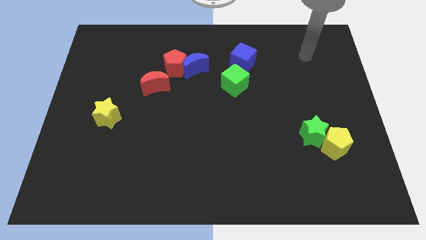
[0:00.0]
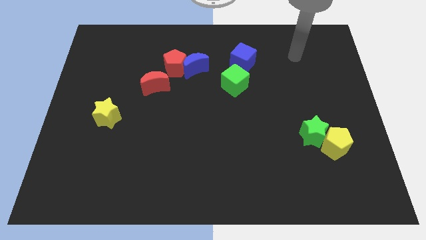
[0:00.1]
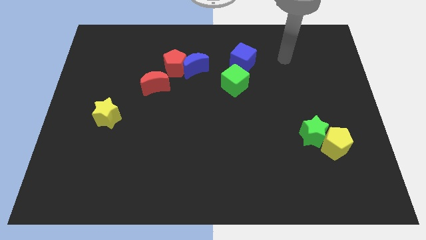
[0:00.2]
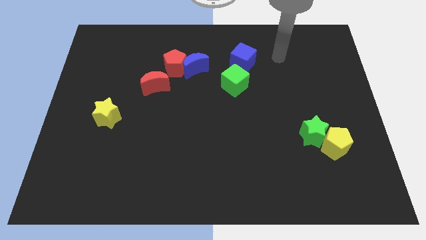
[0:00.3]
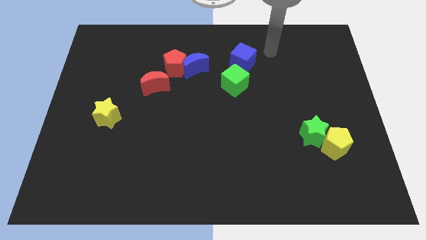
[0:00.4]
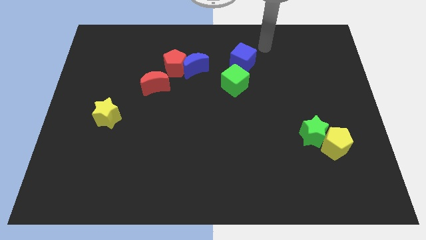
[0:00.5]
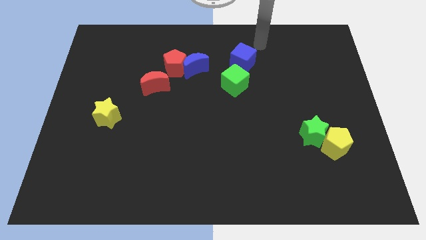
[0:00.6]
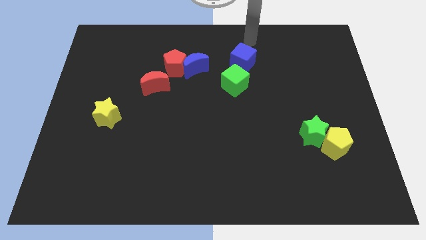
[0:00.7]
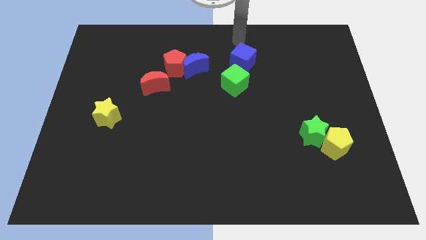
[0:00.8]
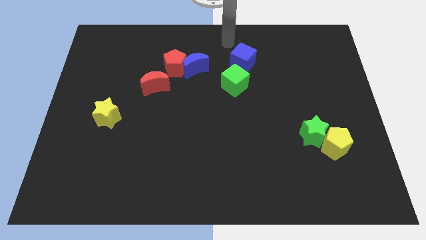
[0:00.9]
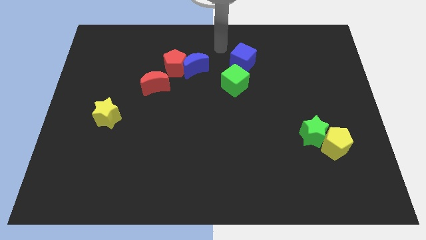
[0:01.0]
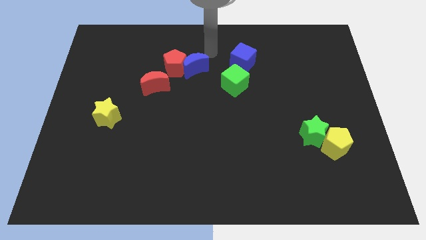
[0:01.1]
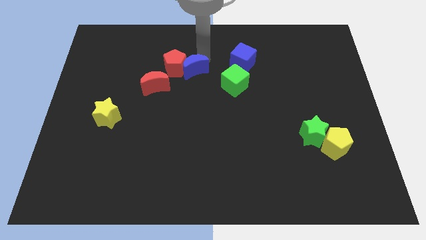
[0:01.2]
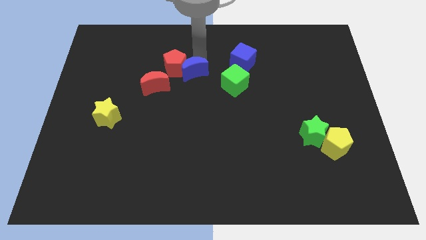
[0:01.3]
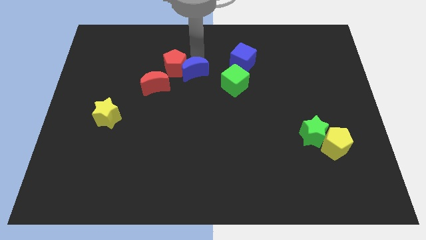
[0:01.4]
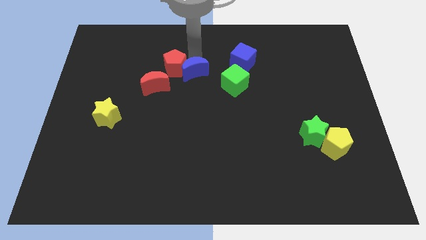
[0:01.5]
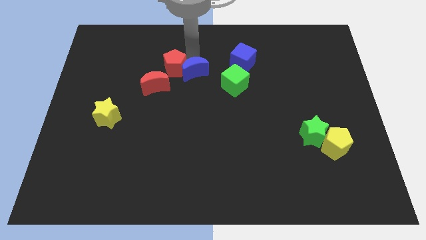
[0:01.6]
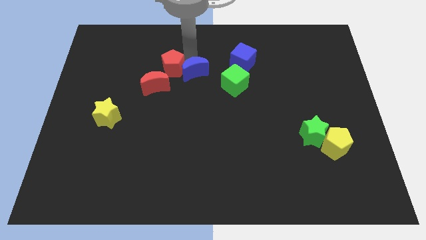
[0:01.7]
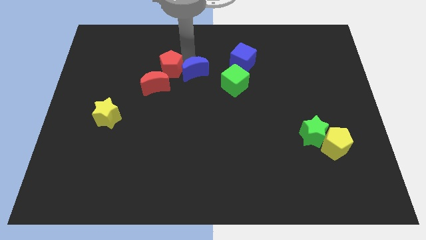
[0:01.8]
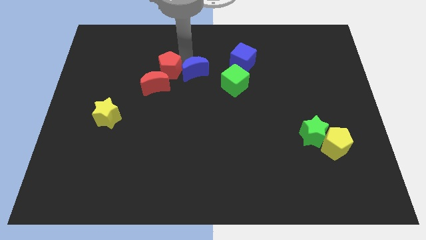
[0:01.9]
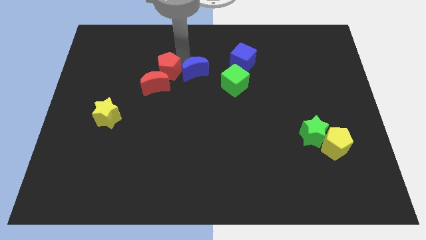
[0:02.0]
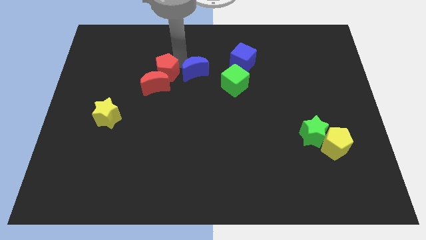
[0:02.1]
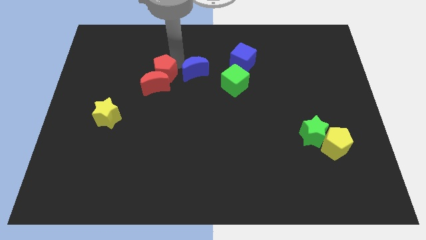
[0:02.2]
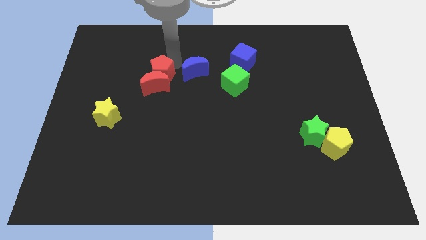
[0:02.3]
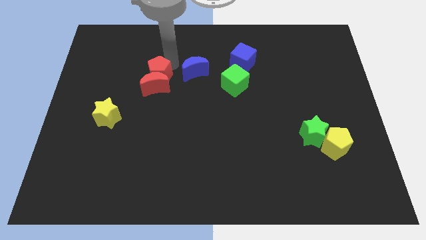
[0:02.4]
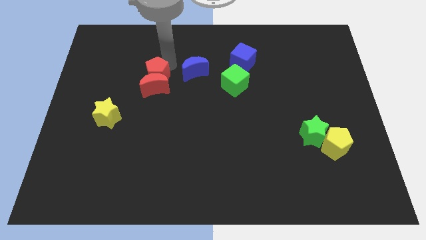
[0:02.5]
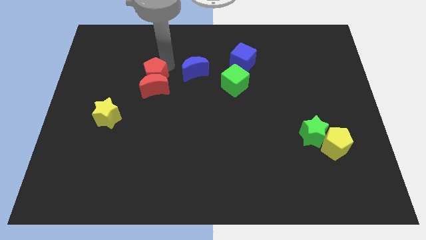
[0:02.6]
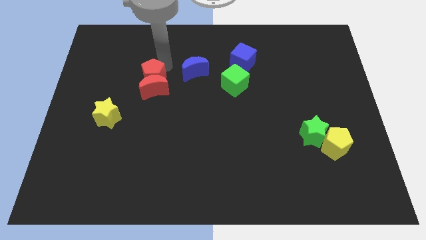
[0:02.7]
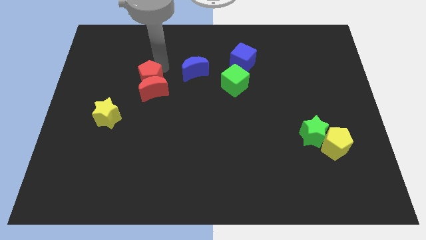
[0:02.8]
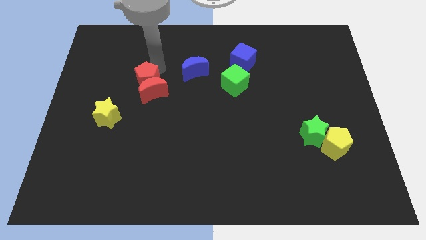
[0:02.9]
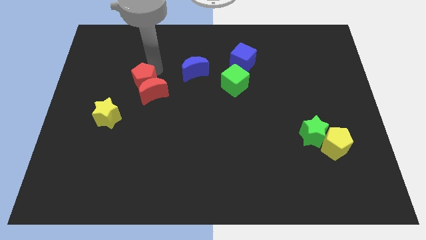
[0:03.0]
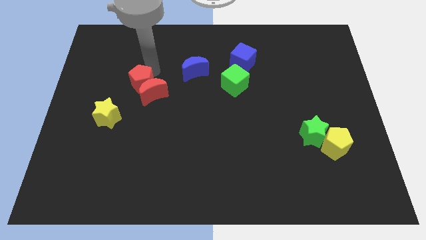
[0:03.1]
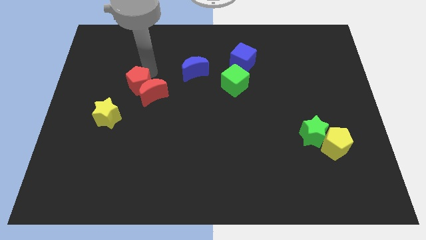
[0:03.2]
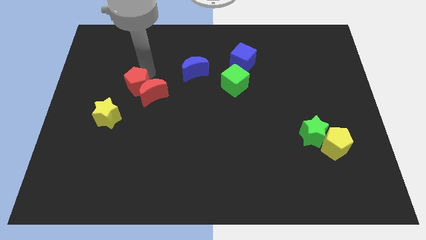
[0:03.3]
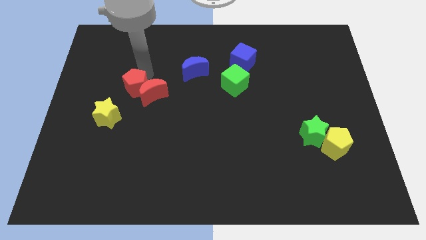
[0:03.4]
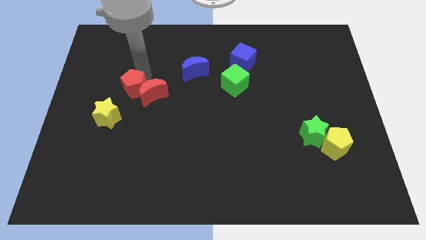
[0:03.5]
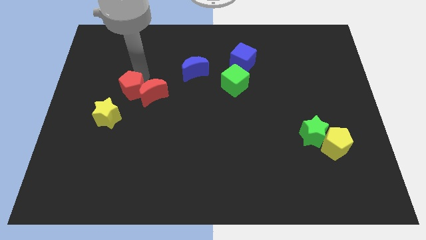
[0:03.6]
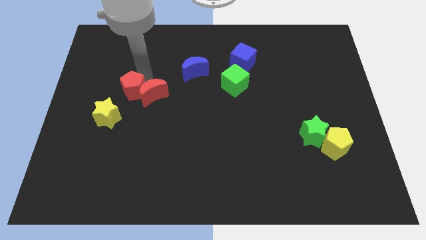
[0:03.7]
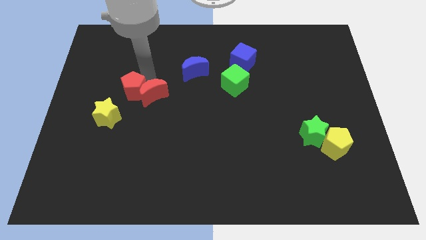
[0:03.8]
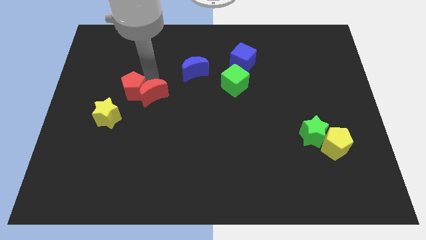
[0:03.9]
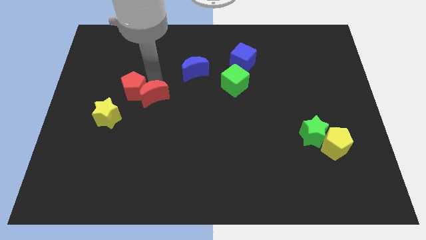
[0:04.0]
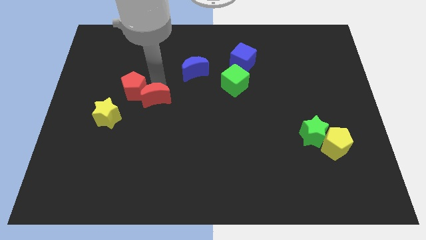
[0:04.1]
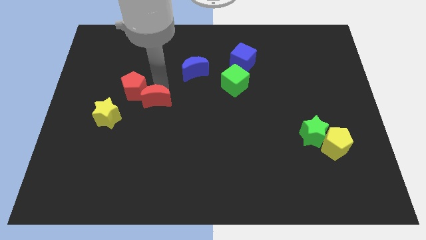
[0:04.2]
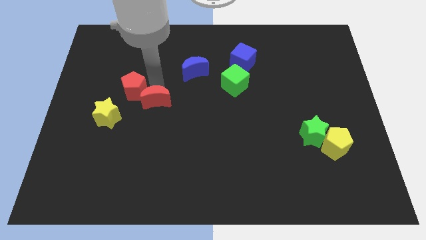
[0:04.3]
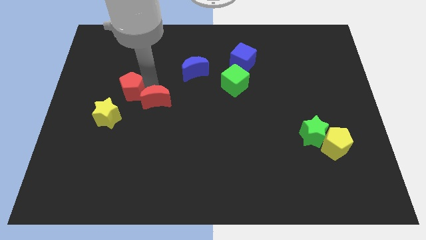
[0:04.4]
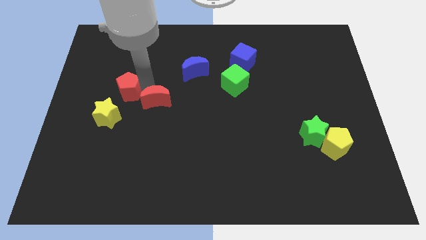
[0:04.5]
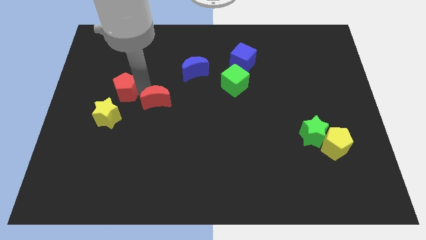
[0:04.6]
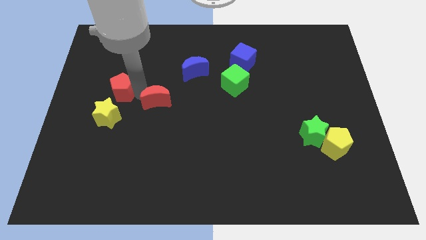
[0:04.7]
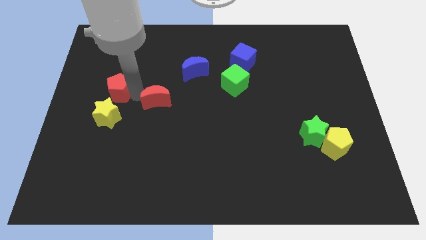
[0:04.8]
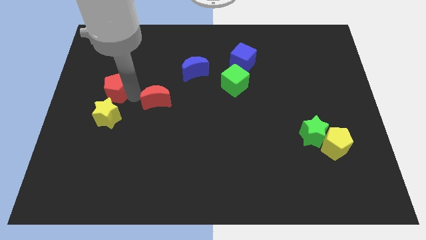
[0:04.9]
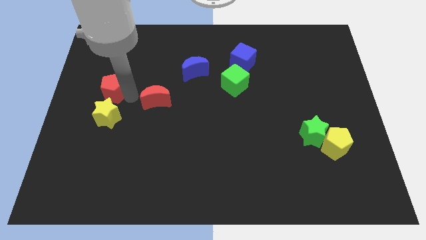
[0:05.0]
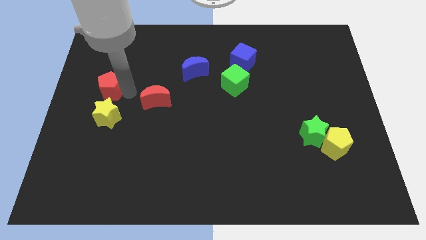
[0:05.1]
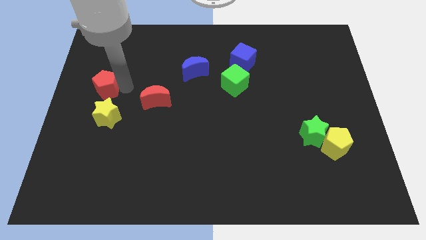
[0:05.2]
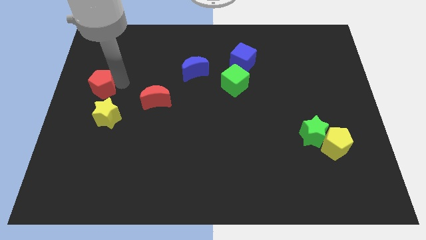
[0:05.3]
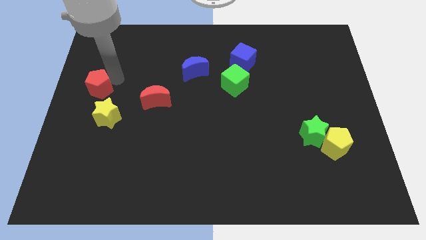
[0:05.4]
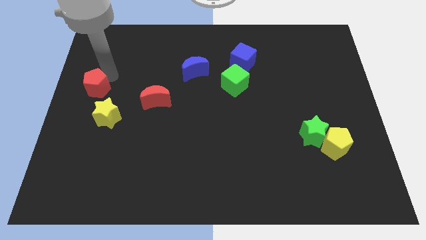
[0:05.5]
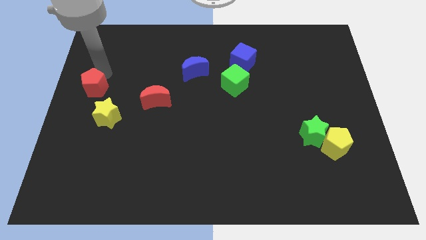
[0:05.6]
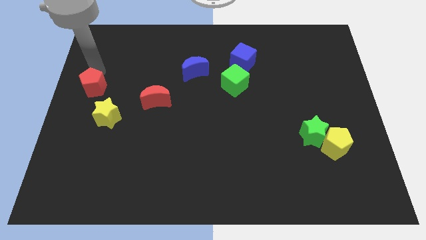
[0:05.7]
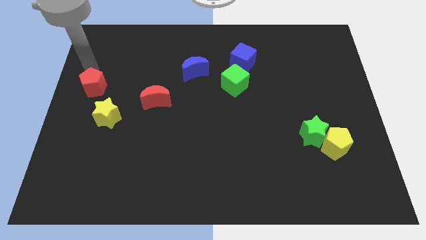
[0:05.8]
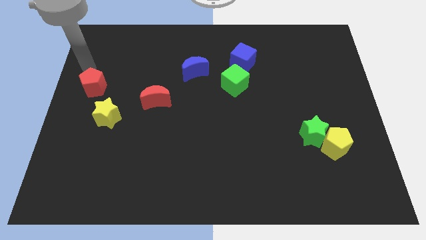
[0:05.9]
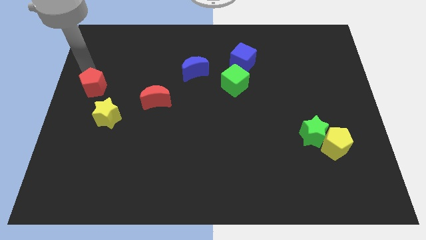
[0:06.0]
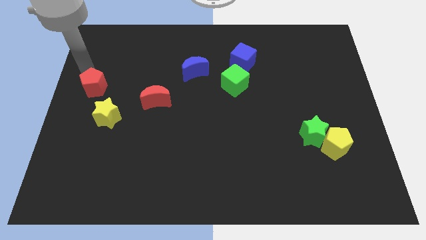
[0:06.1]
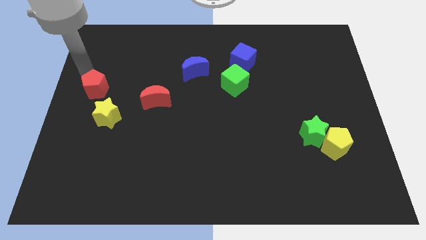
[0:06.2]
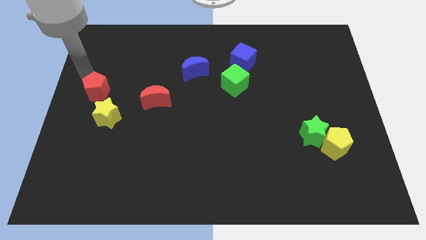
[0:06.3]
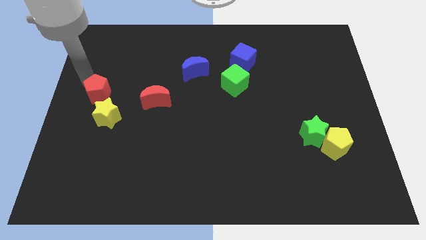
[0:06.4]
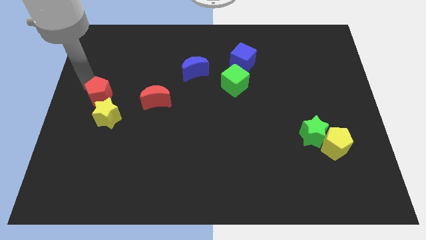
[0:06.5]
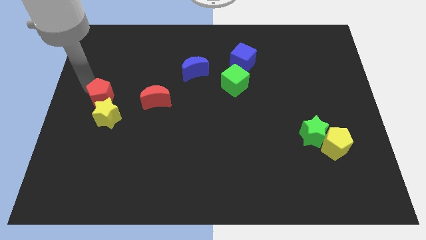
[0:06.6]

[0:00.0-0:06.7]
slide the red pentagon to the yellow star
